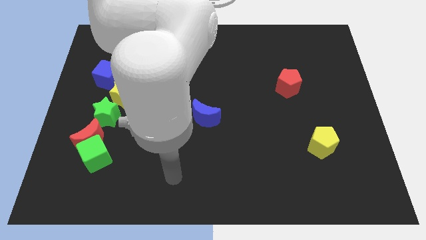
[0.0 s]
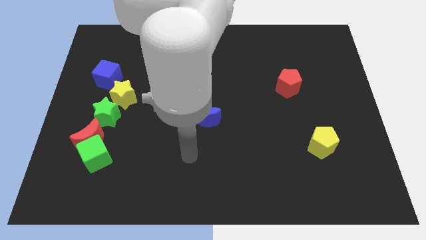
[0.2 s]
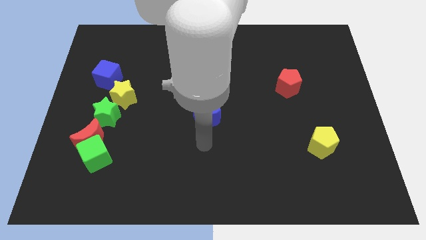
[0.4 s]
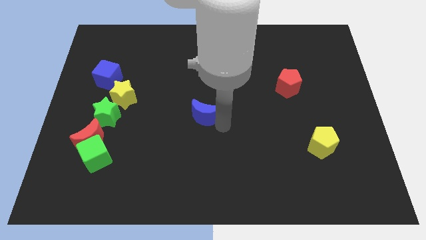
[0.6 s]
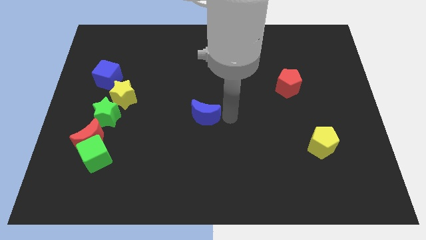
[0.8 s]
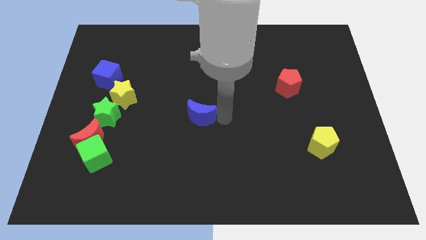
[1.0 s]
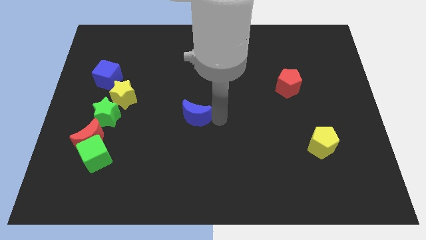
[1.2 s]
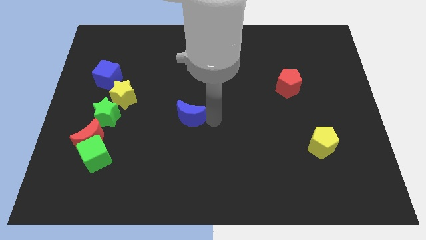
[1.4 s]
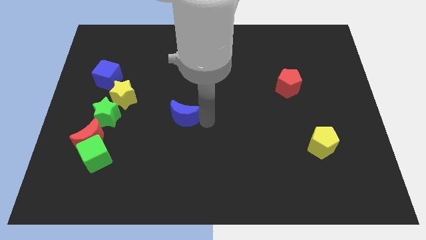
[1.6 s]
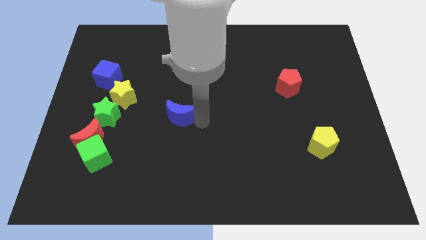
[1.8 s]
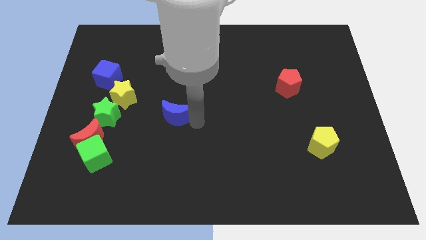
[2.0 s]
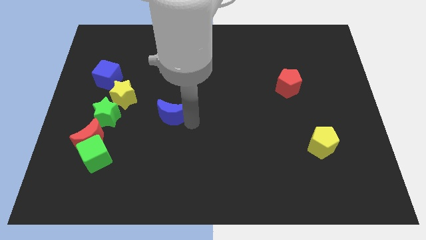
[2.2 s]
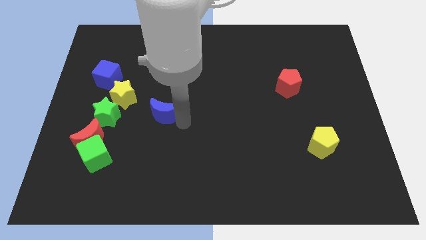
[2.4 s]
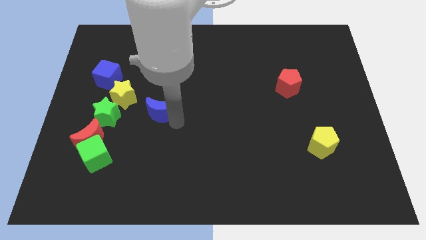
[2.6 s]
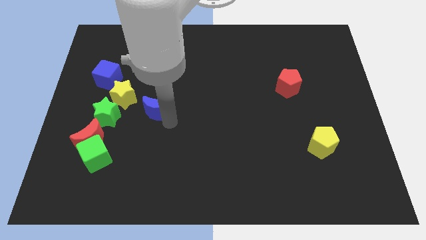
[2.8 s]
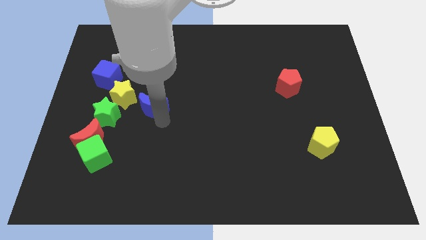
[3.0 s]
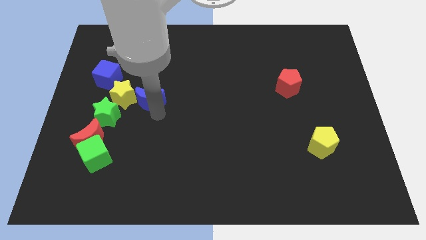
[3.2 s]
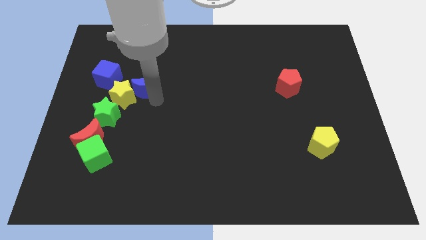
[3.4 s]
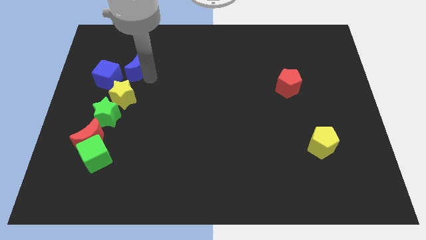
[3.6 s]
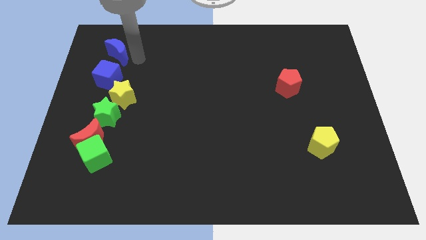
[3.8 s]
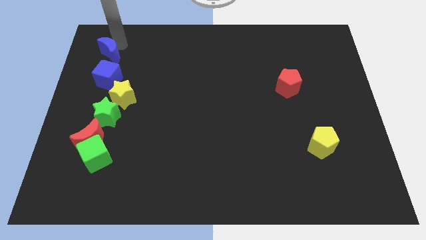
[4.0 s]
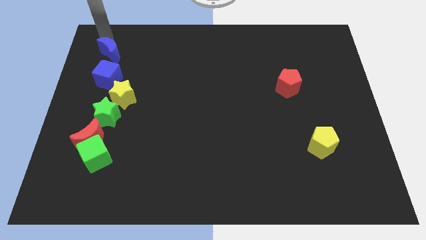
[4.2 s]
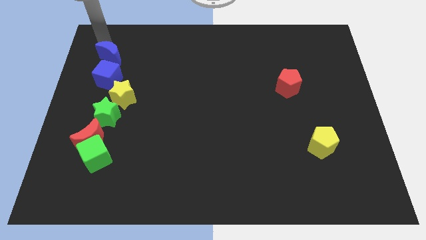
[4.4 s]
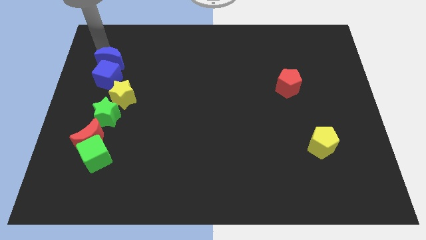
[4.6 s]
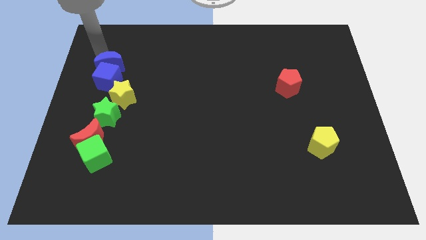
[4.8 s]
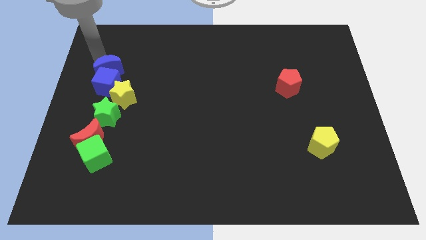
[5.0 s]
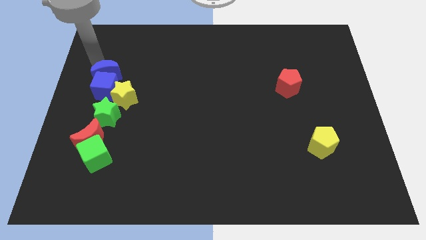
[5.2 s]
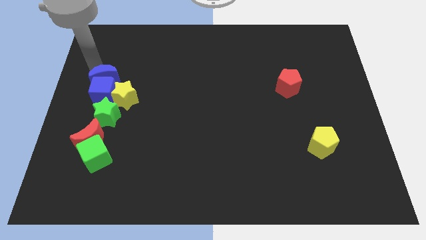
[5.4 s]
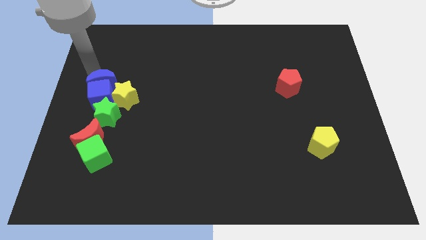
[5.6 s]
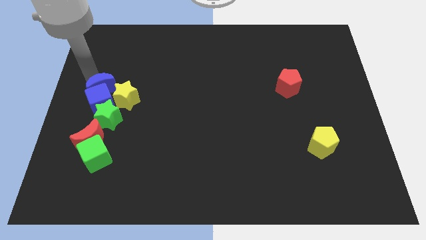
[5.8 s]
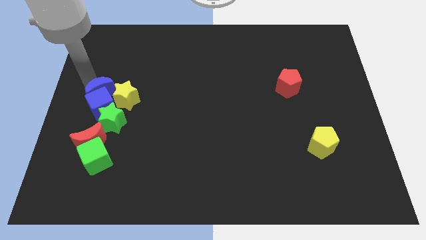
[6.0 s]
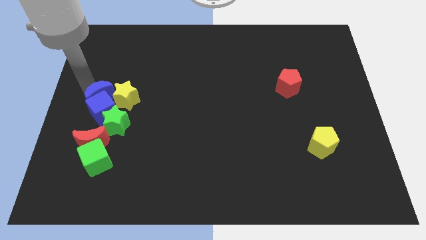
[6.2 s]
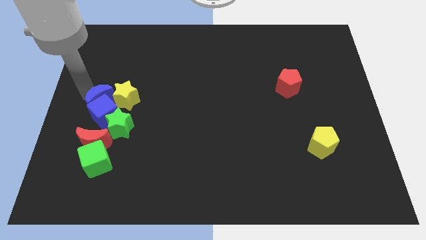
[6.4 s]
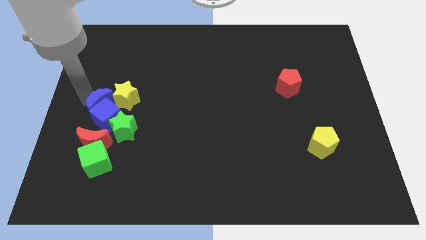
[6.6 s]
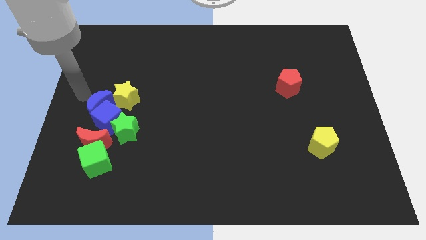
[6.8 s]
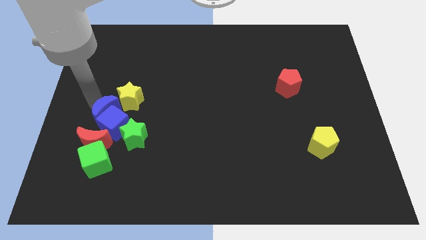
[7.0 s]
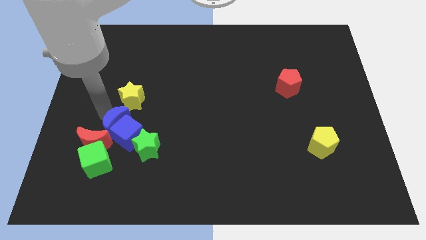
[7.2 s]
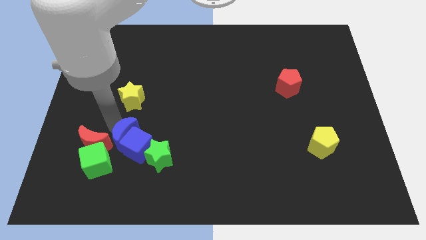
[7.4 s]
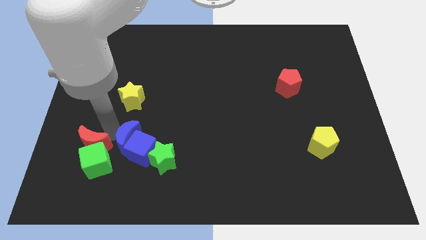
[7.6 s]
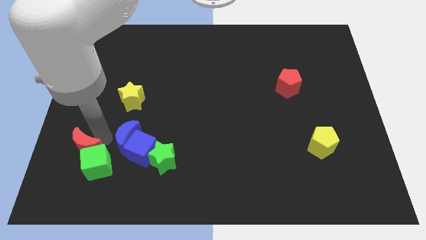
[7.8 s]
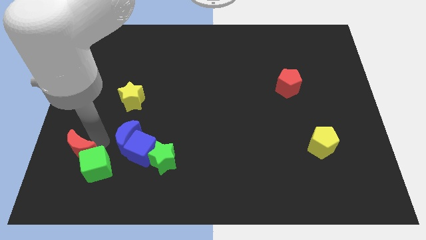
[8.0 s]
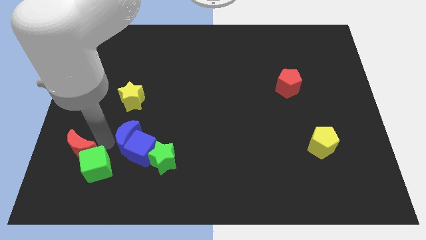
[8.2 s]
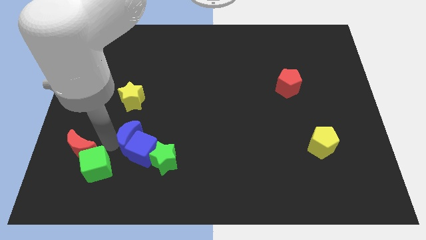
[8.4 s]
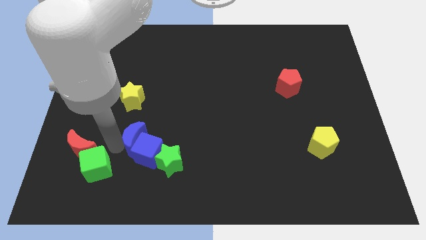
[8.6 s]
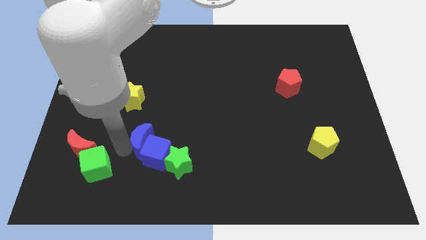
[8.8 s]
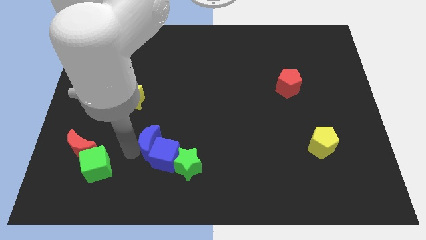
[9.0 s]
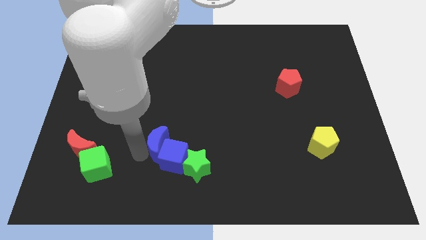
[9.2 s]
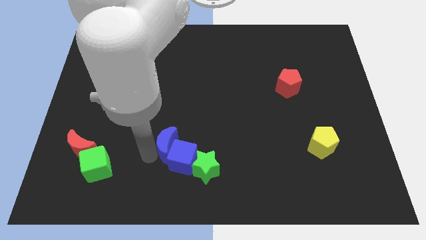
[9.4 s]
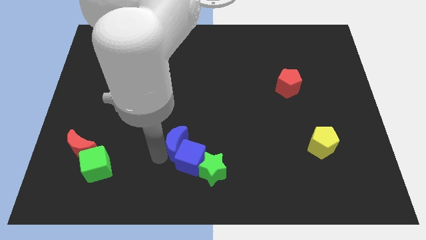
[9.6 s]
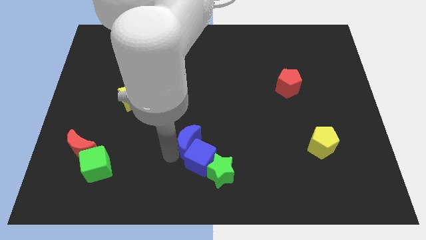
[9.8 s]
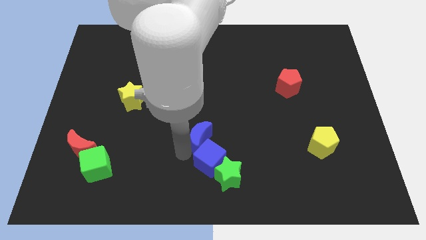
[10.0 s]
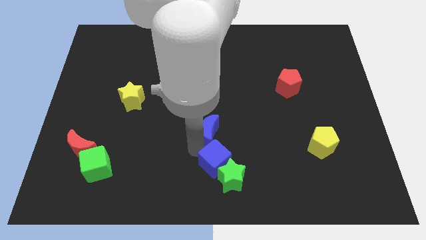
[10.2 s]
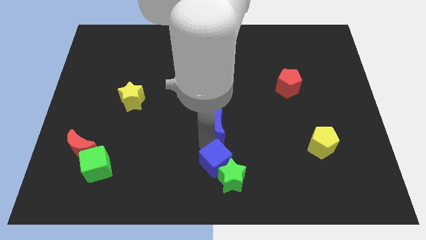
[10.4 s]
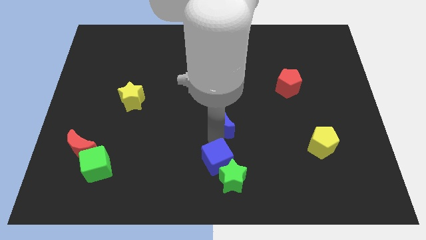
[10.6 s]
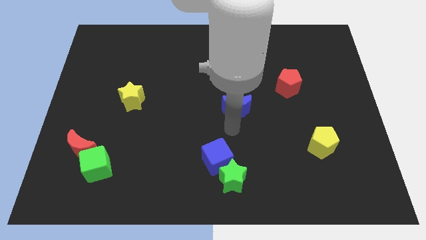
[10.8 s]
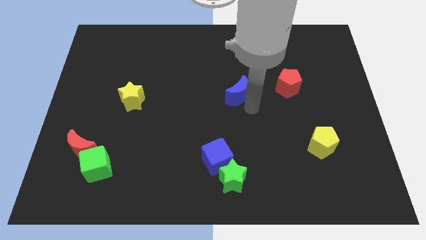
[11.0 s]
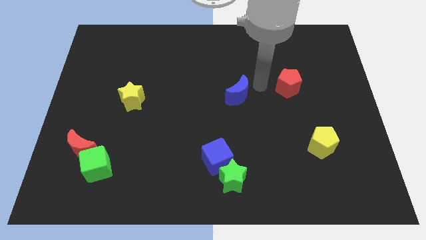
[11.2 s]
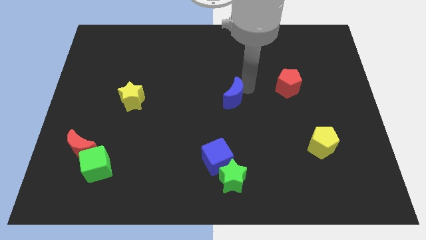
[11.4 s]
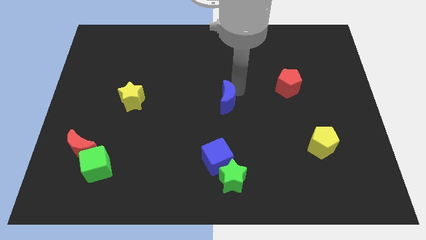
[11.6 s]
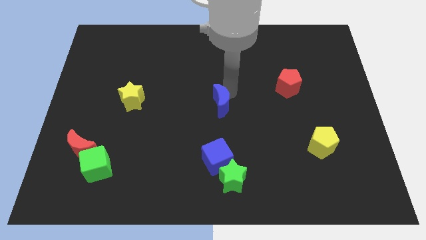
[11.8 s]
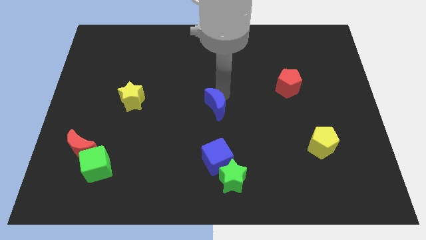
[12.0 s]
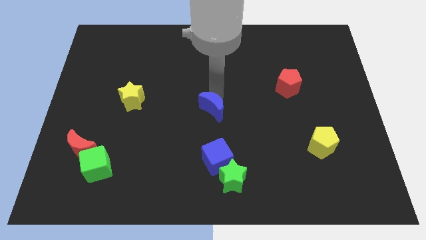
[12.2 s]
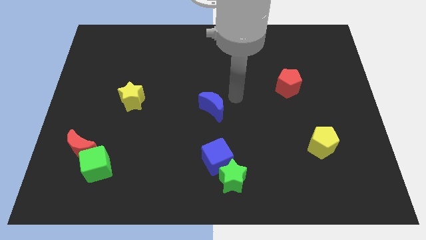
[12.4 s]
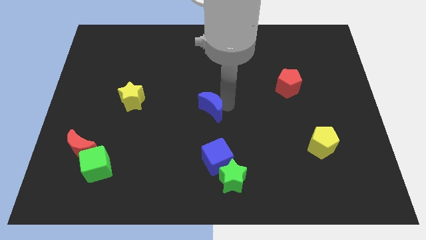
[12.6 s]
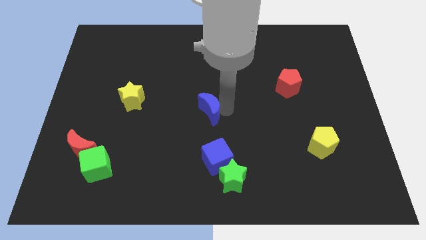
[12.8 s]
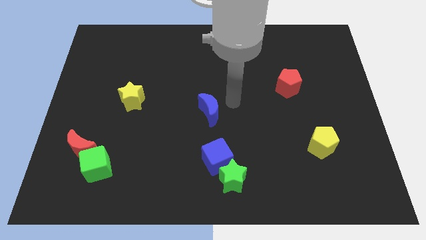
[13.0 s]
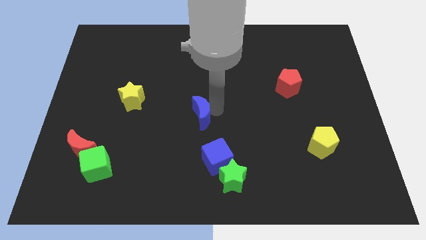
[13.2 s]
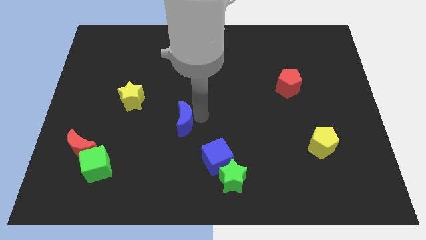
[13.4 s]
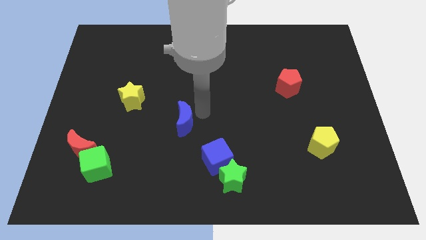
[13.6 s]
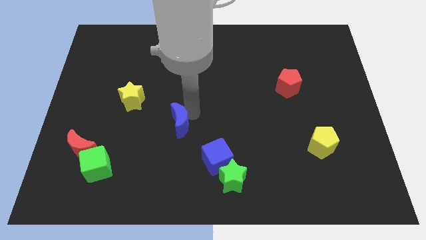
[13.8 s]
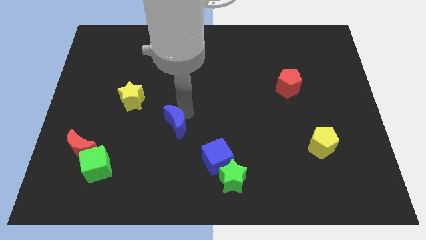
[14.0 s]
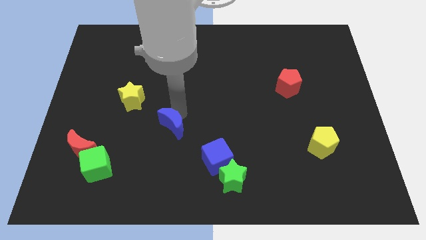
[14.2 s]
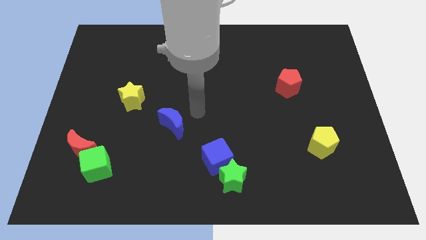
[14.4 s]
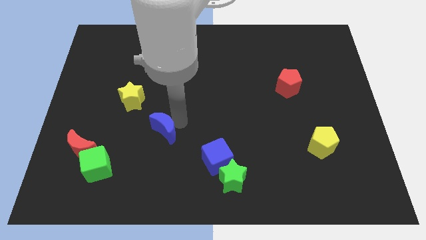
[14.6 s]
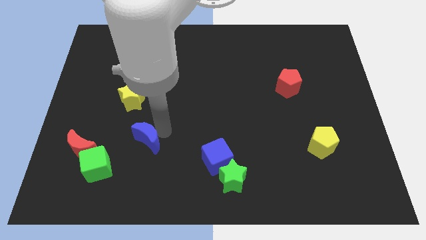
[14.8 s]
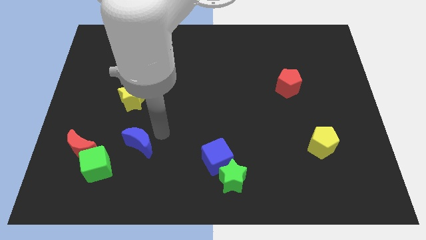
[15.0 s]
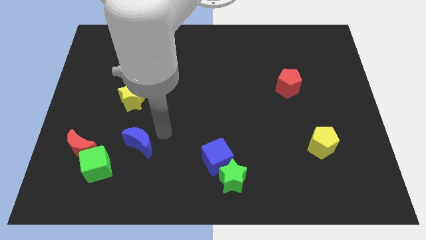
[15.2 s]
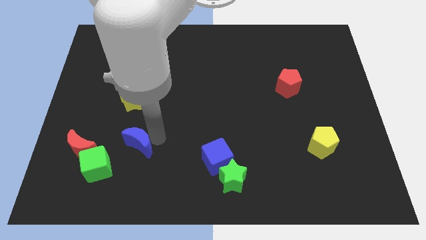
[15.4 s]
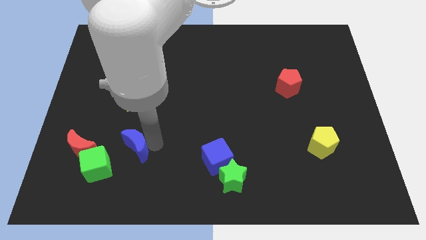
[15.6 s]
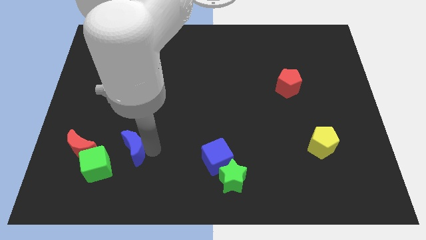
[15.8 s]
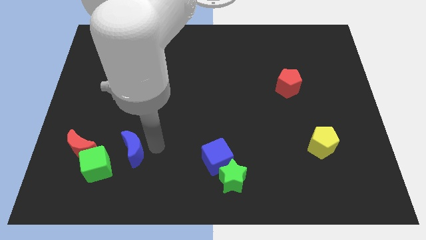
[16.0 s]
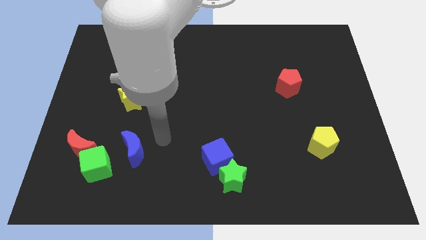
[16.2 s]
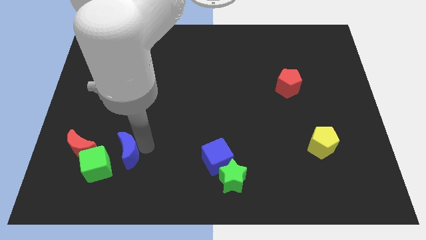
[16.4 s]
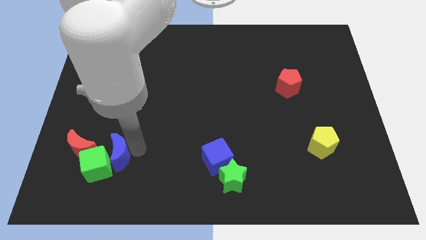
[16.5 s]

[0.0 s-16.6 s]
push the blue moon next to the green cube
